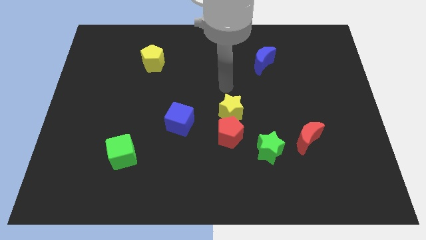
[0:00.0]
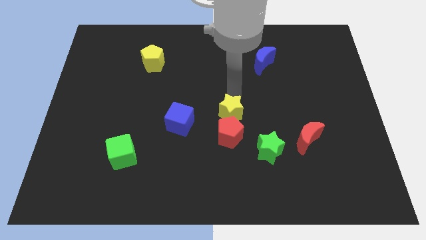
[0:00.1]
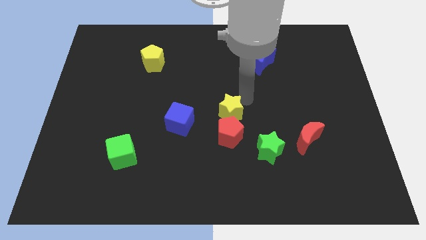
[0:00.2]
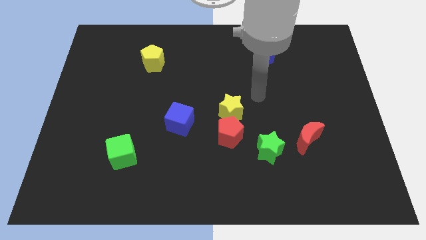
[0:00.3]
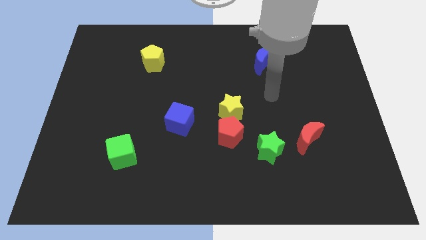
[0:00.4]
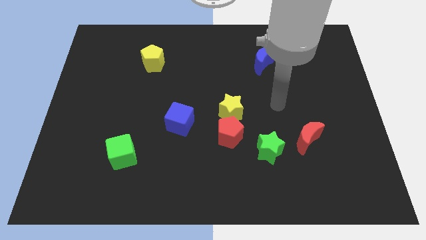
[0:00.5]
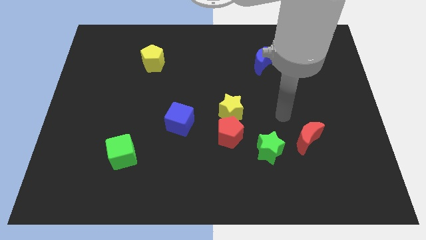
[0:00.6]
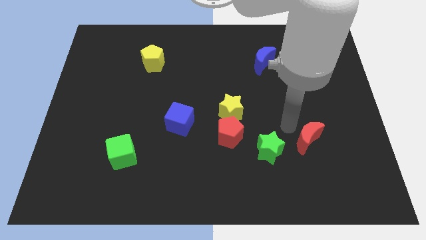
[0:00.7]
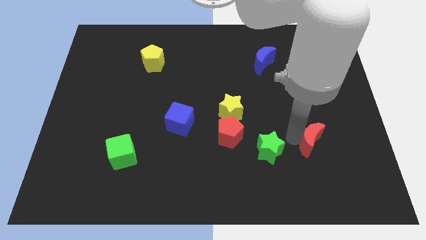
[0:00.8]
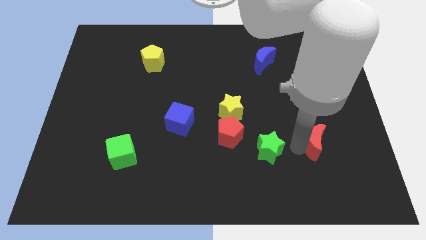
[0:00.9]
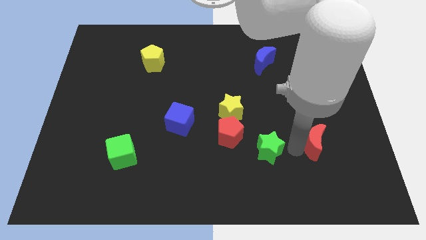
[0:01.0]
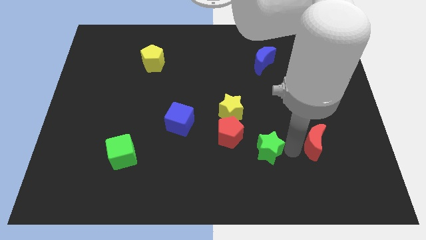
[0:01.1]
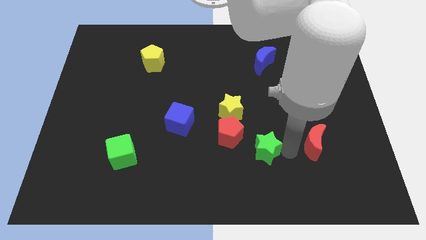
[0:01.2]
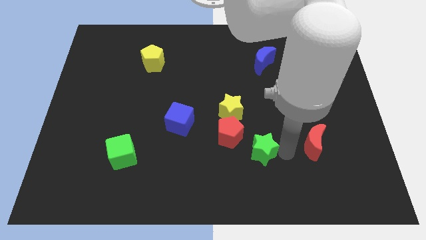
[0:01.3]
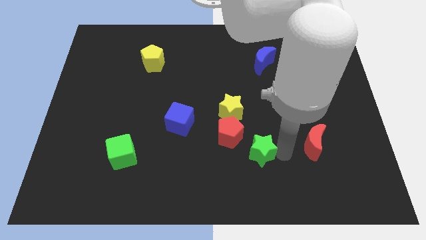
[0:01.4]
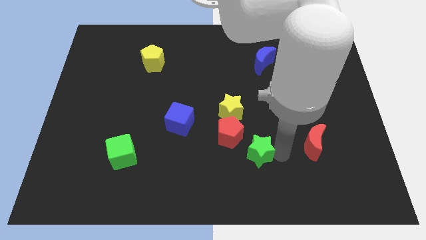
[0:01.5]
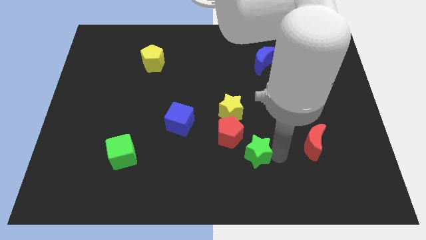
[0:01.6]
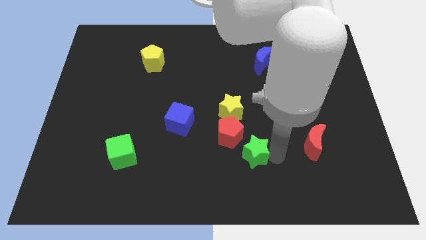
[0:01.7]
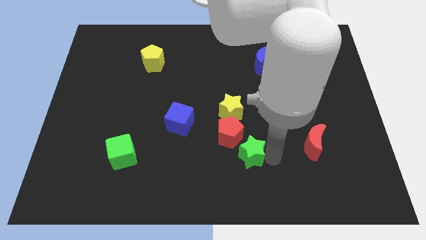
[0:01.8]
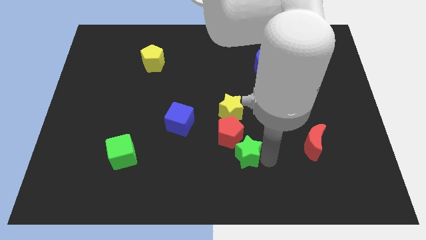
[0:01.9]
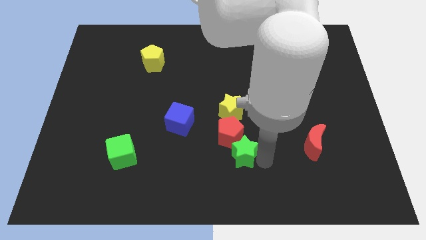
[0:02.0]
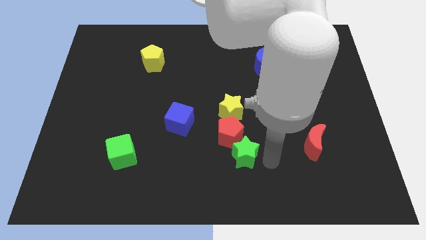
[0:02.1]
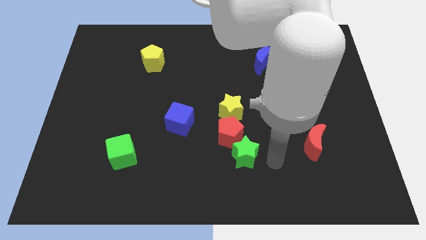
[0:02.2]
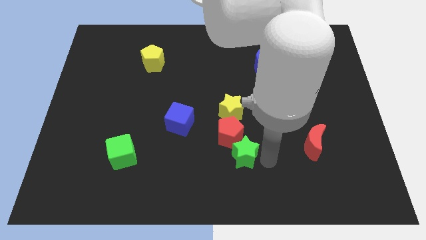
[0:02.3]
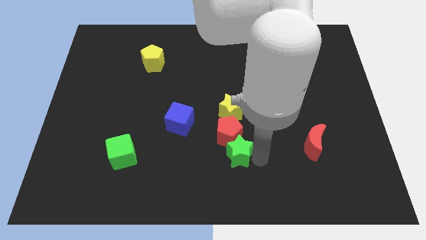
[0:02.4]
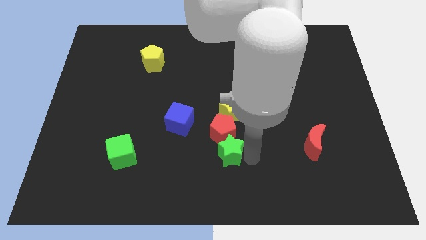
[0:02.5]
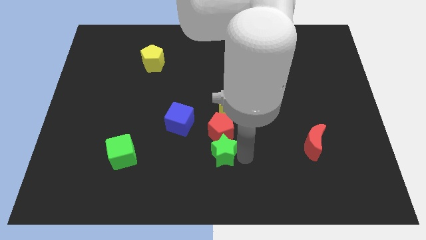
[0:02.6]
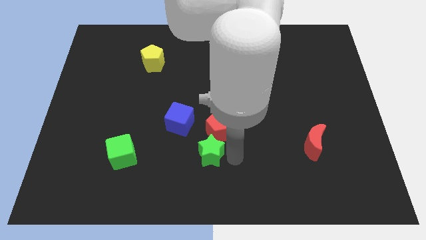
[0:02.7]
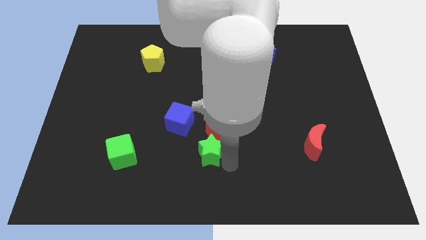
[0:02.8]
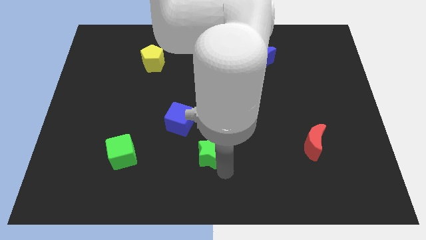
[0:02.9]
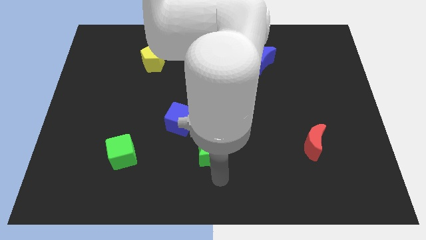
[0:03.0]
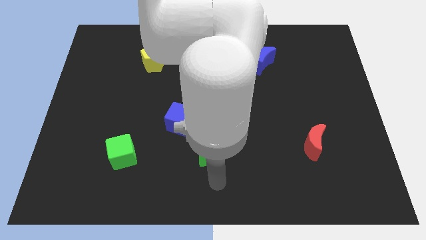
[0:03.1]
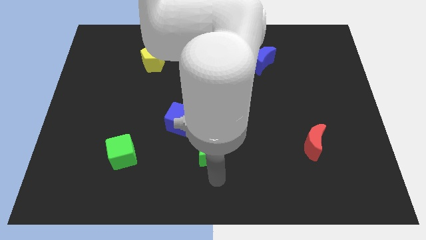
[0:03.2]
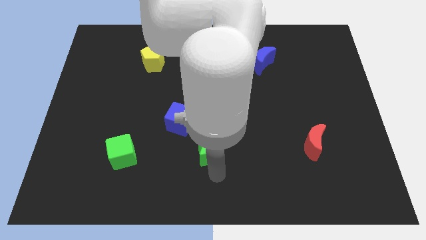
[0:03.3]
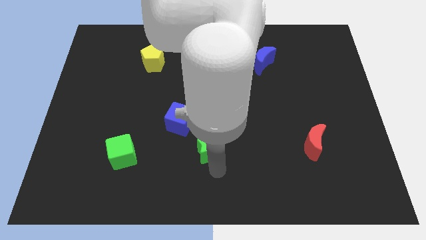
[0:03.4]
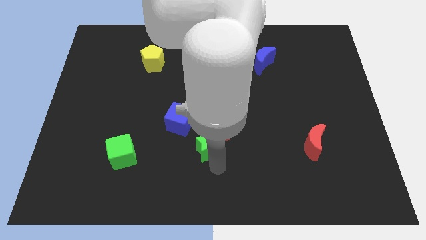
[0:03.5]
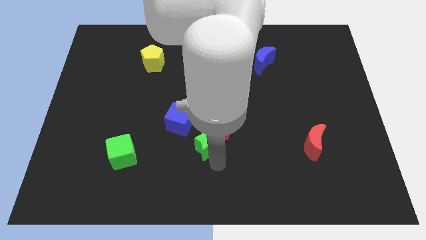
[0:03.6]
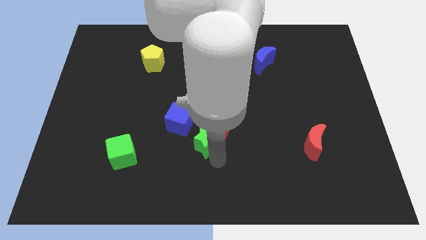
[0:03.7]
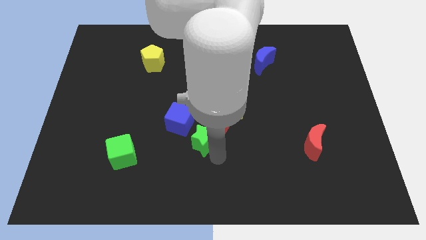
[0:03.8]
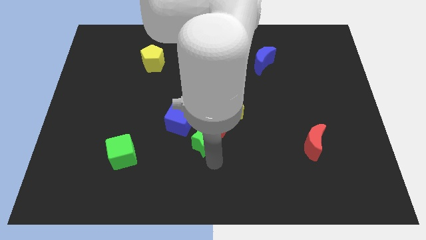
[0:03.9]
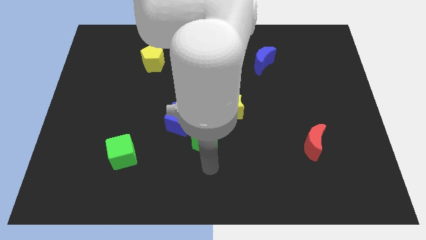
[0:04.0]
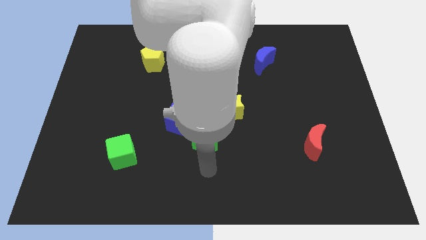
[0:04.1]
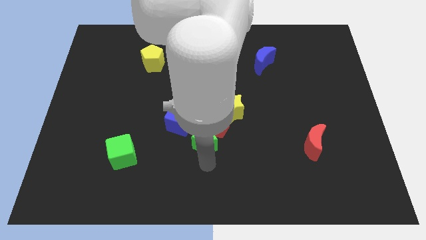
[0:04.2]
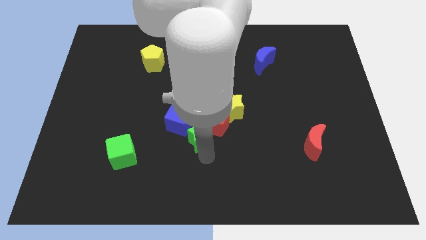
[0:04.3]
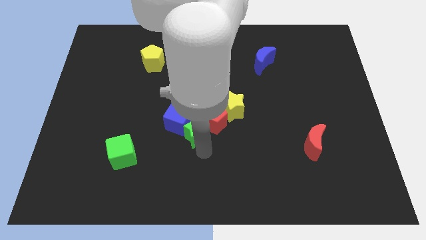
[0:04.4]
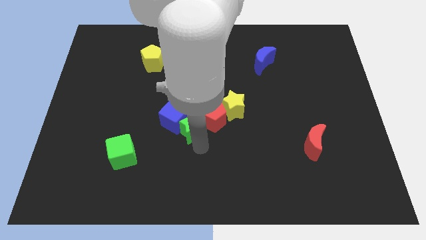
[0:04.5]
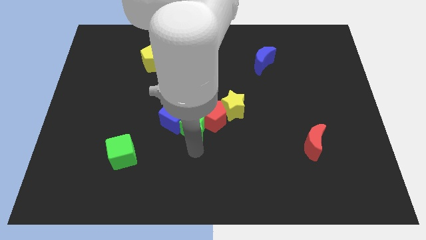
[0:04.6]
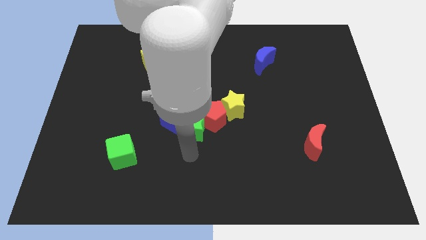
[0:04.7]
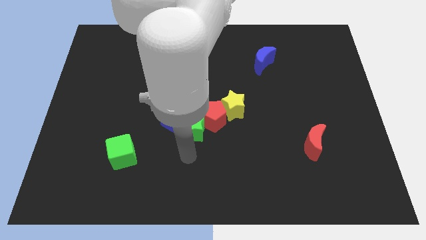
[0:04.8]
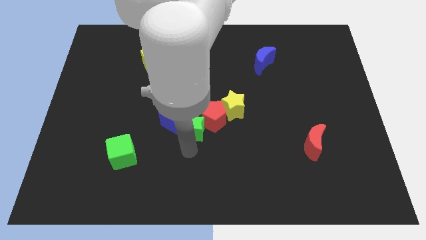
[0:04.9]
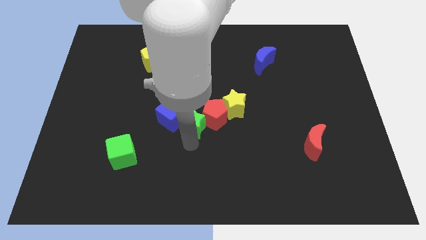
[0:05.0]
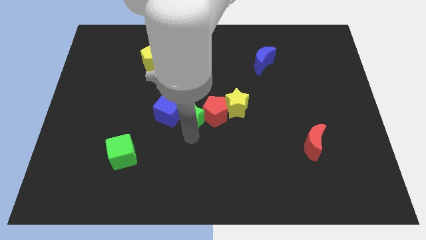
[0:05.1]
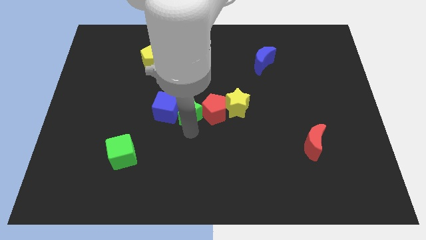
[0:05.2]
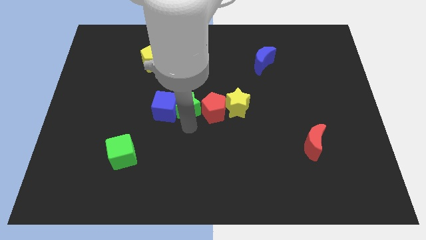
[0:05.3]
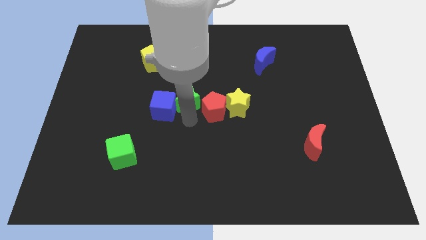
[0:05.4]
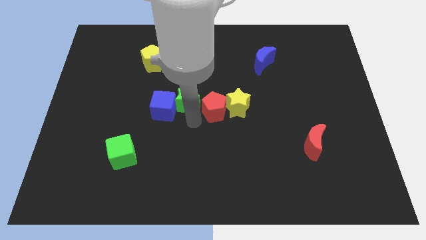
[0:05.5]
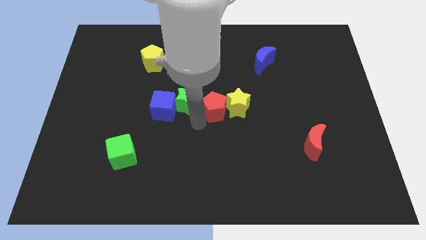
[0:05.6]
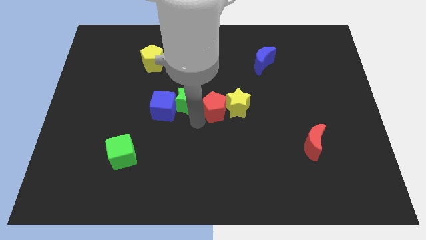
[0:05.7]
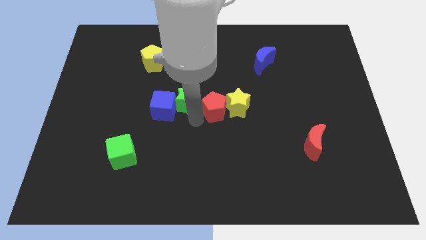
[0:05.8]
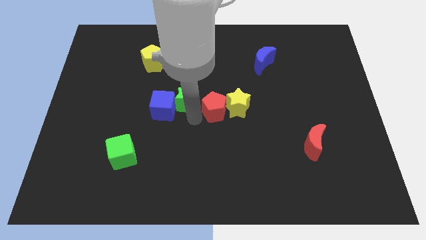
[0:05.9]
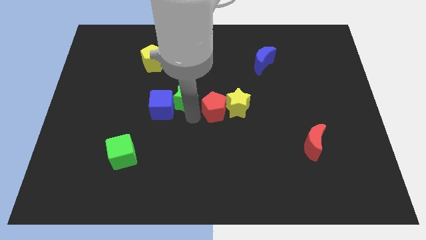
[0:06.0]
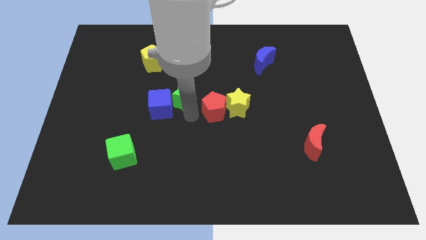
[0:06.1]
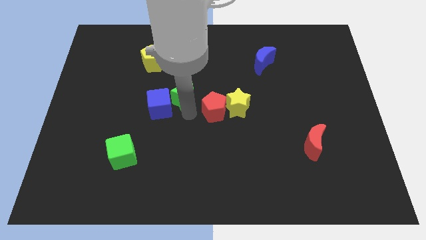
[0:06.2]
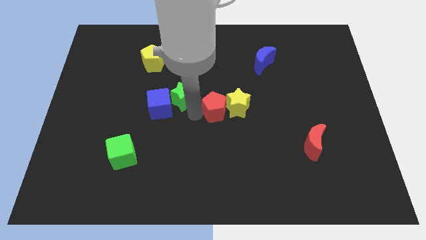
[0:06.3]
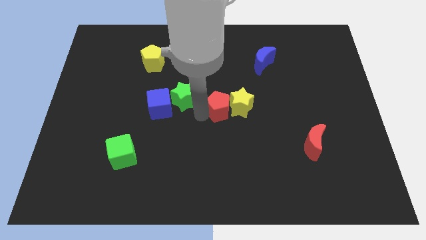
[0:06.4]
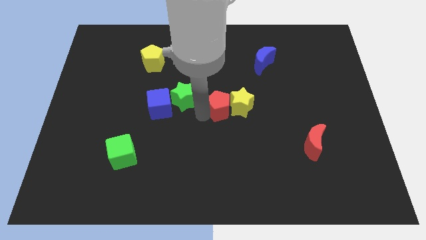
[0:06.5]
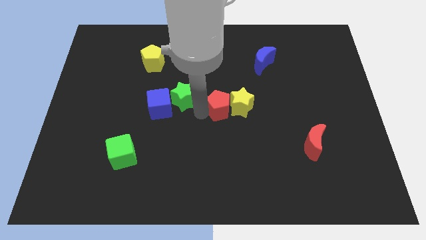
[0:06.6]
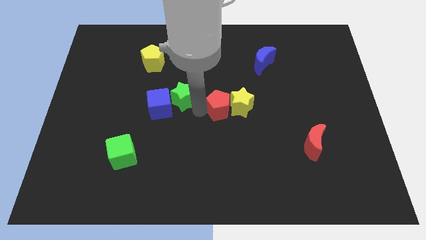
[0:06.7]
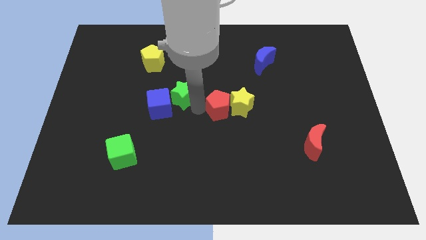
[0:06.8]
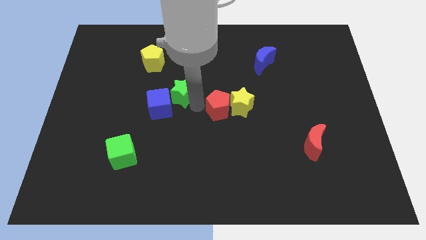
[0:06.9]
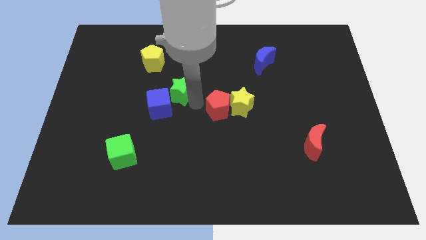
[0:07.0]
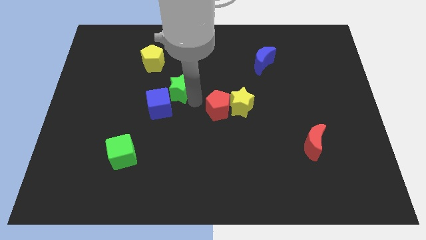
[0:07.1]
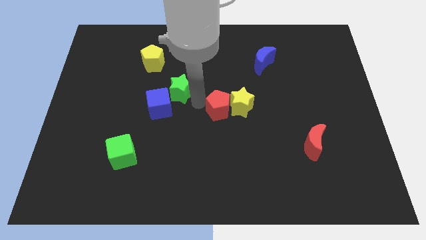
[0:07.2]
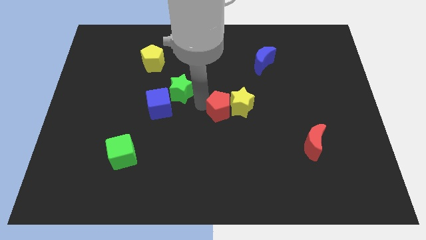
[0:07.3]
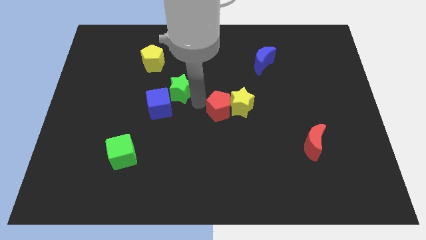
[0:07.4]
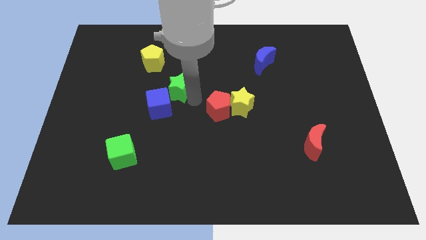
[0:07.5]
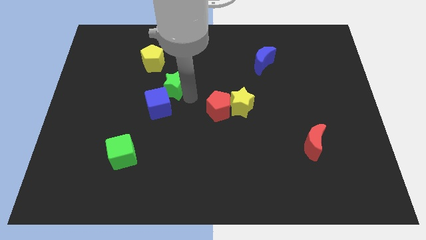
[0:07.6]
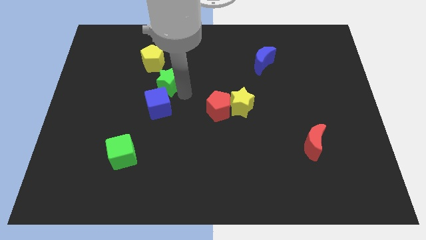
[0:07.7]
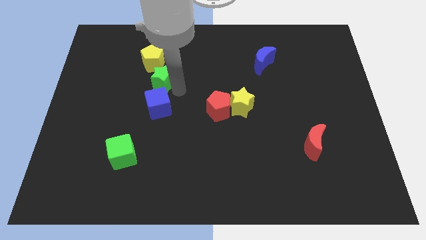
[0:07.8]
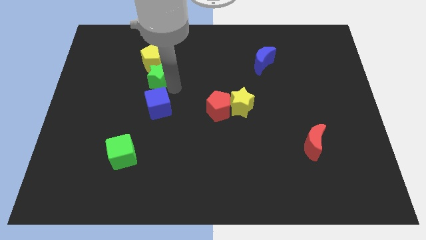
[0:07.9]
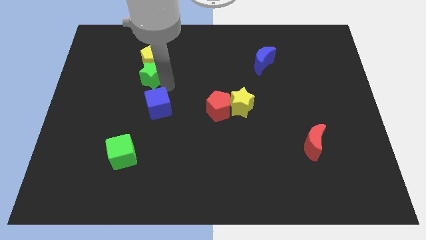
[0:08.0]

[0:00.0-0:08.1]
push the green star next to the yellow pentagon
